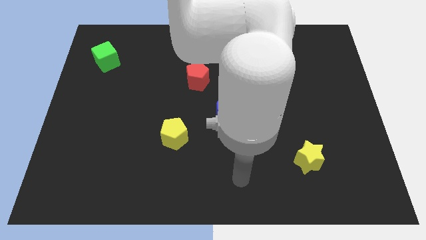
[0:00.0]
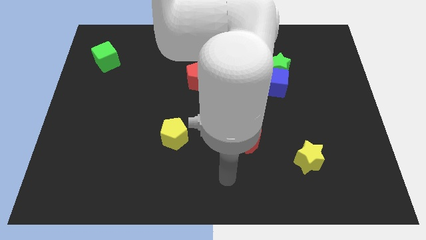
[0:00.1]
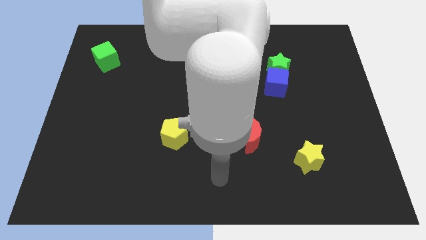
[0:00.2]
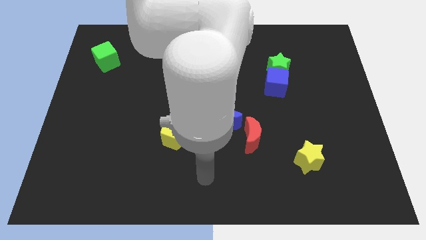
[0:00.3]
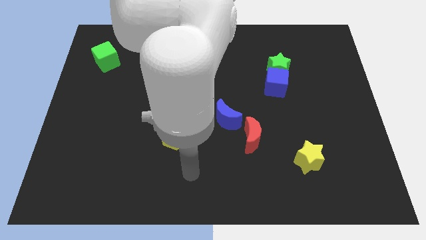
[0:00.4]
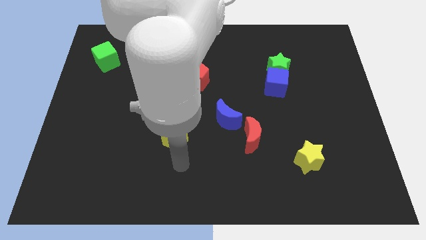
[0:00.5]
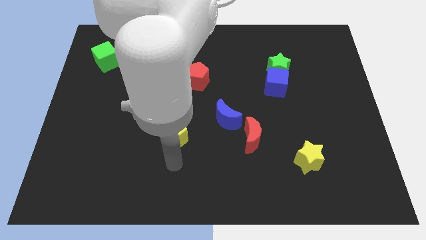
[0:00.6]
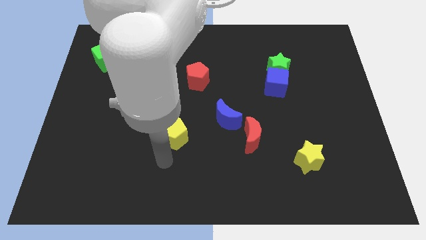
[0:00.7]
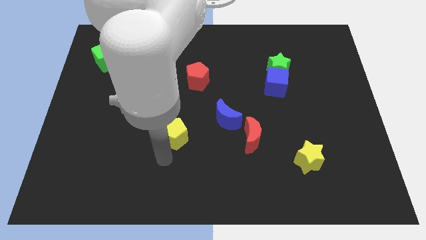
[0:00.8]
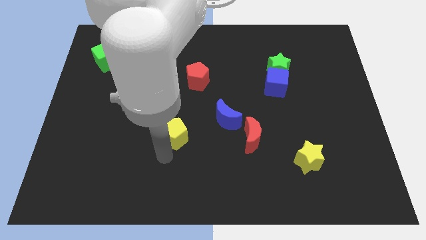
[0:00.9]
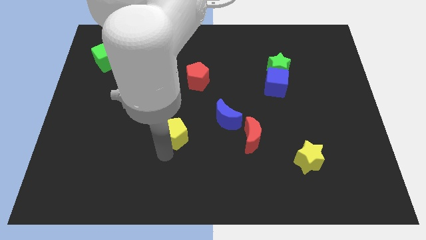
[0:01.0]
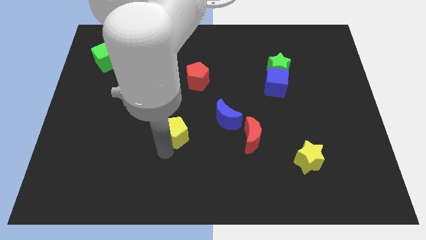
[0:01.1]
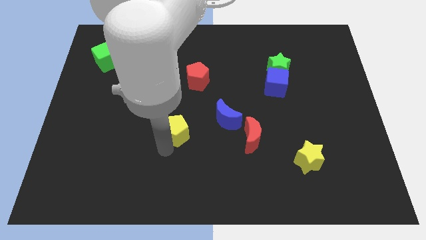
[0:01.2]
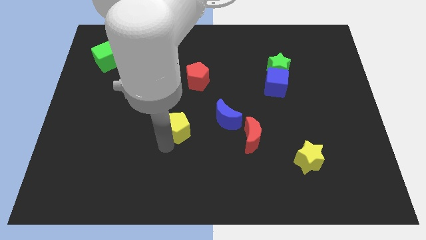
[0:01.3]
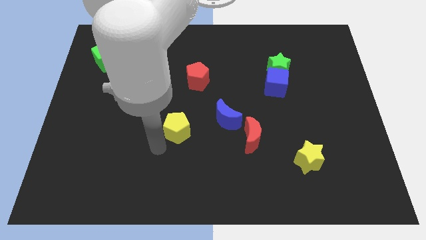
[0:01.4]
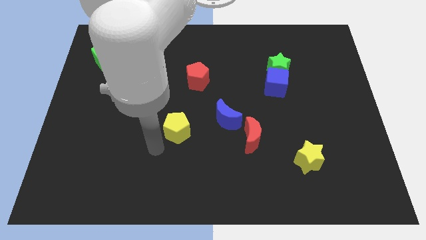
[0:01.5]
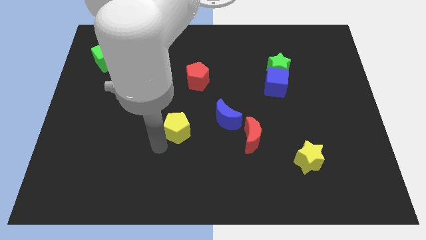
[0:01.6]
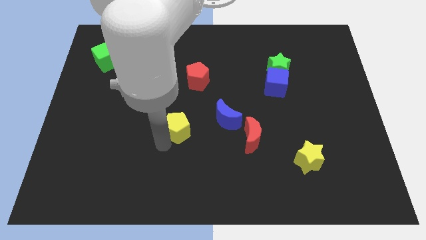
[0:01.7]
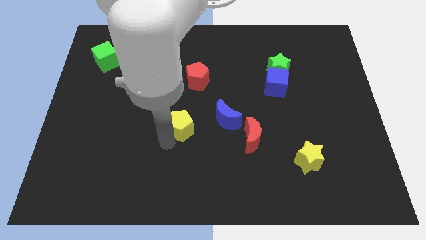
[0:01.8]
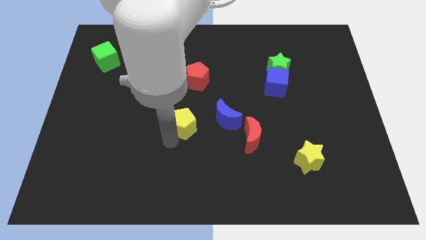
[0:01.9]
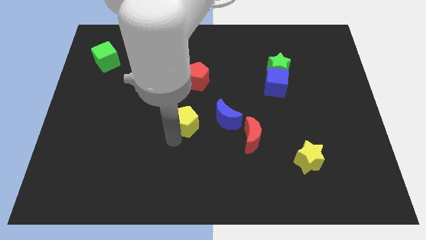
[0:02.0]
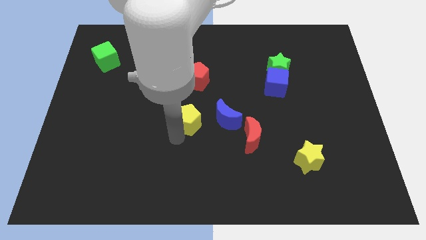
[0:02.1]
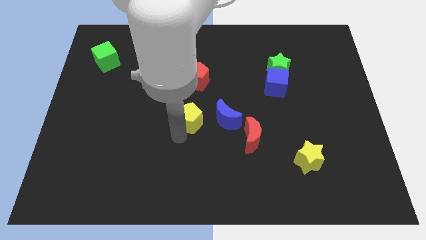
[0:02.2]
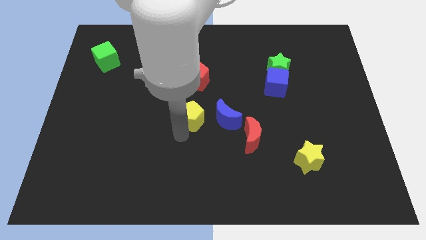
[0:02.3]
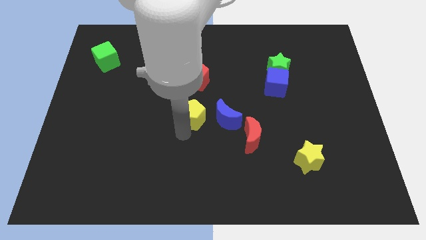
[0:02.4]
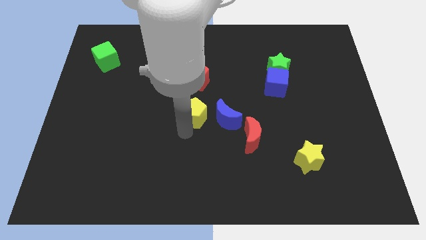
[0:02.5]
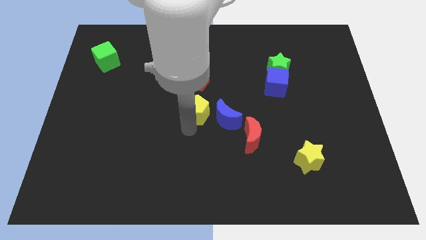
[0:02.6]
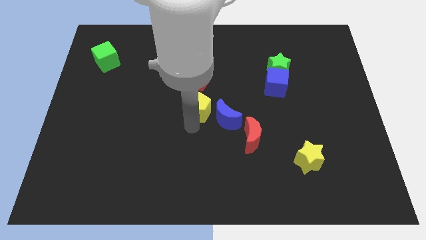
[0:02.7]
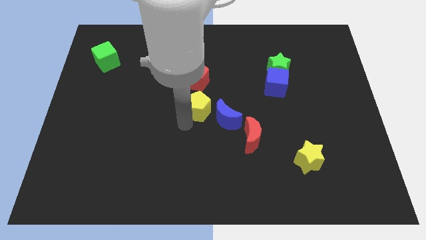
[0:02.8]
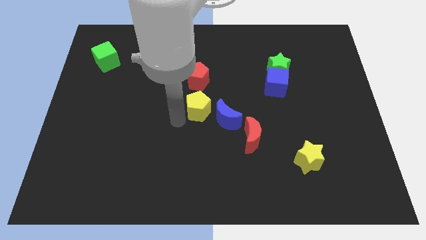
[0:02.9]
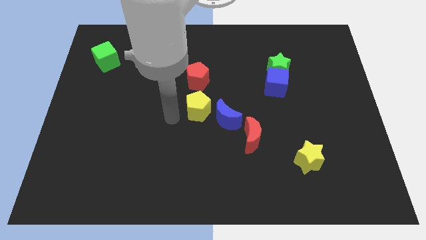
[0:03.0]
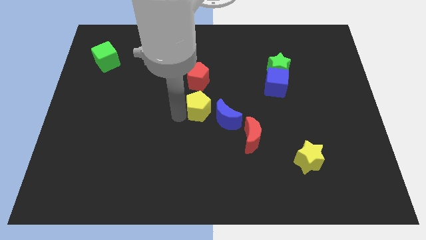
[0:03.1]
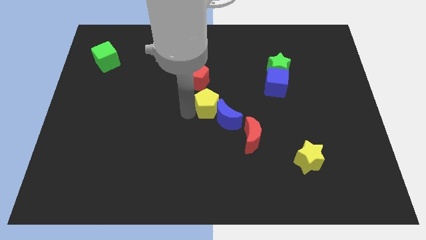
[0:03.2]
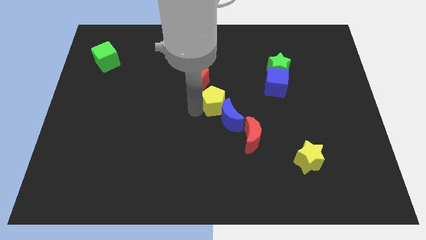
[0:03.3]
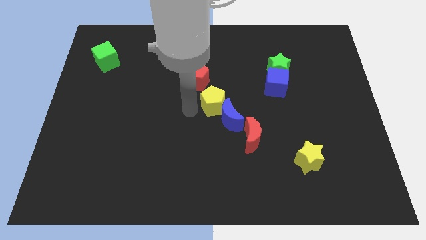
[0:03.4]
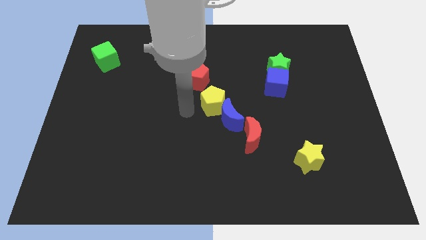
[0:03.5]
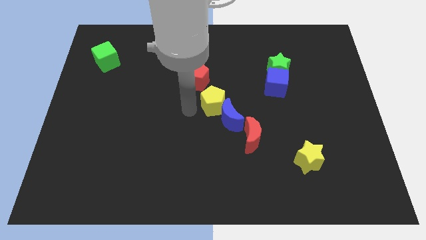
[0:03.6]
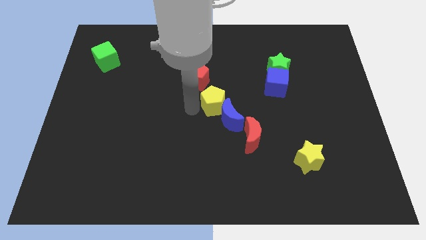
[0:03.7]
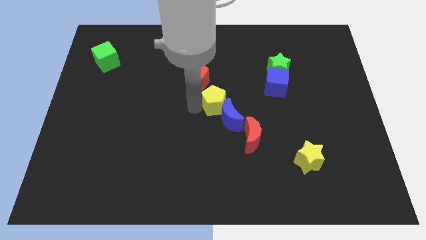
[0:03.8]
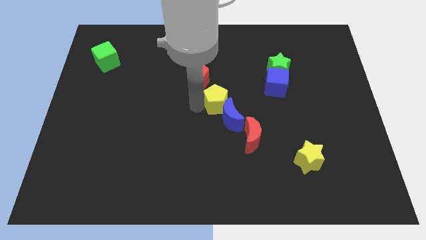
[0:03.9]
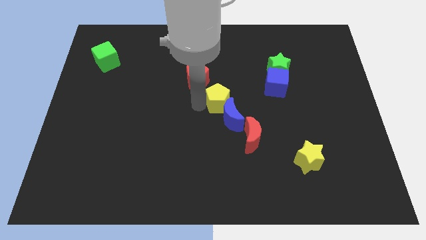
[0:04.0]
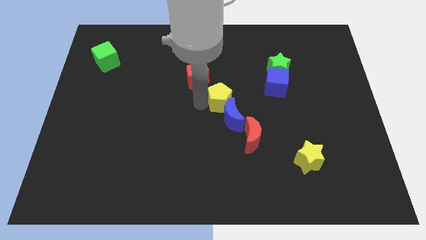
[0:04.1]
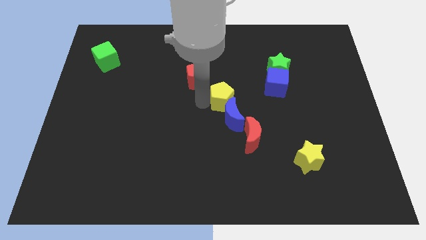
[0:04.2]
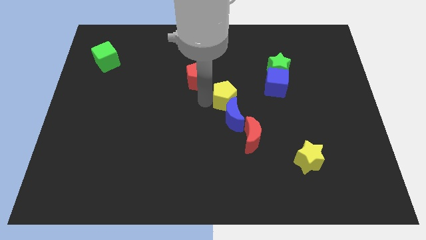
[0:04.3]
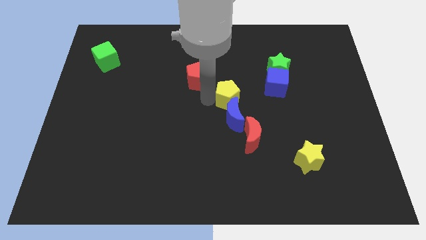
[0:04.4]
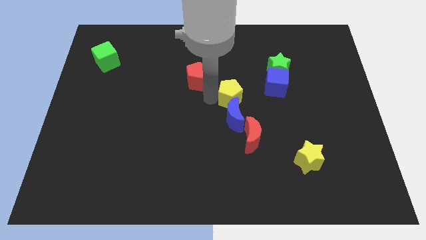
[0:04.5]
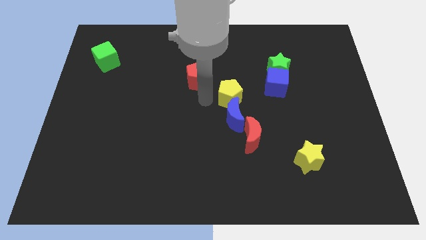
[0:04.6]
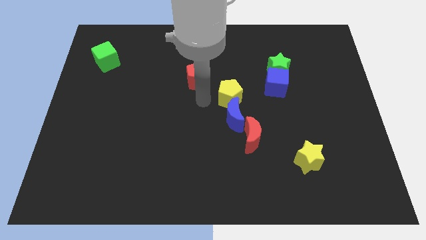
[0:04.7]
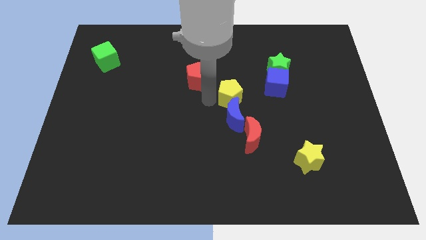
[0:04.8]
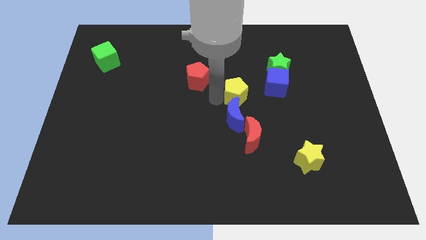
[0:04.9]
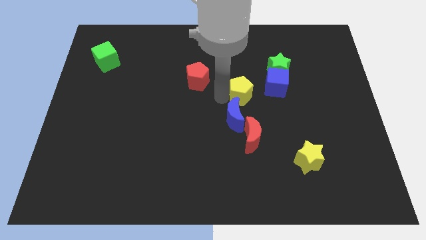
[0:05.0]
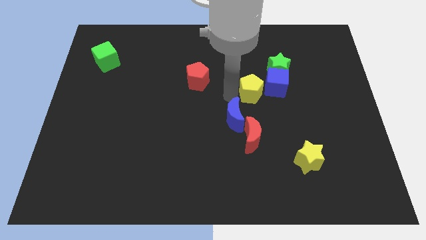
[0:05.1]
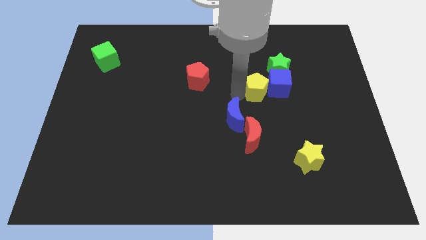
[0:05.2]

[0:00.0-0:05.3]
move the yellow pentagon to the blue cube

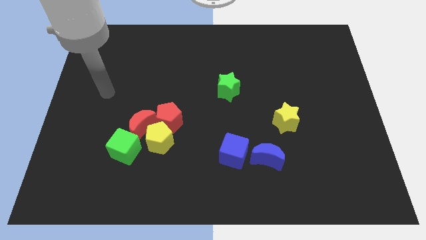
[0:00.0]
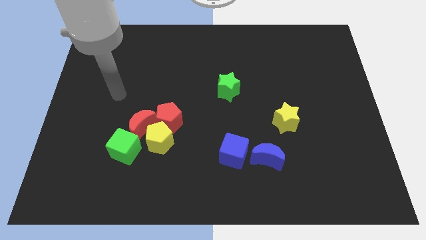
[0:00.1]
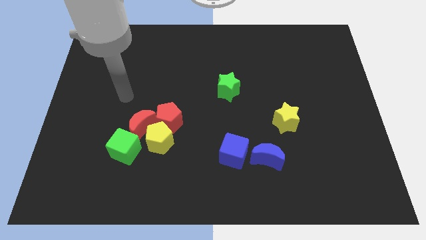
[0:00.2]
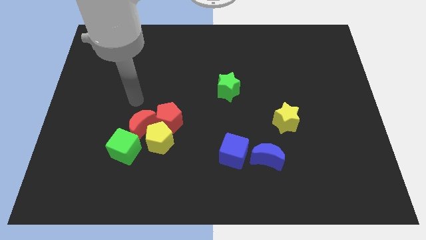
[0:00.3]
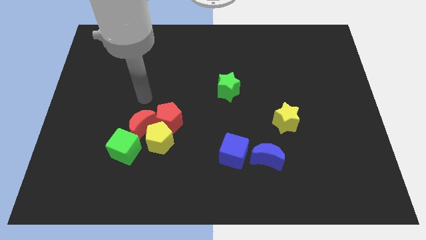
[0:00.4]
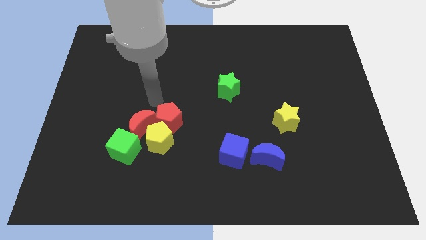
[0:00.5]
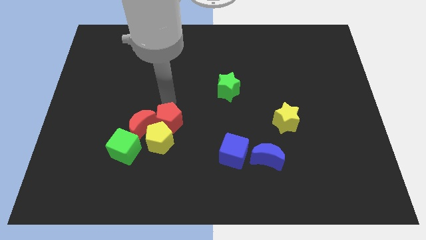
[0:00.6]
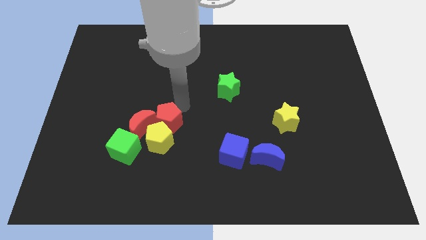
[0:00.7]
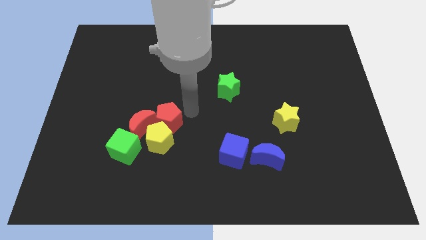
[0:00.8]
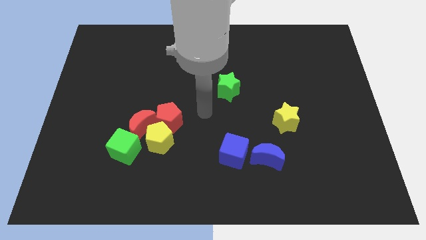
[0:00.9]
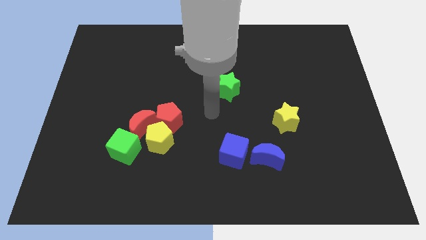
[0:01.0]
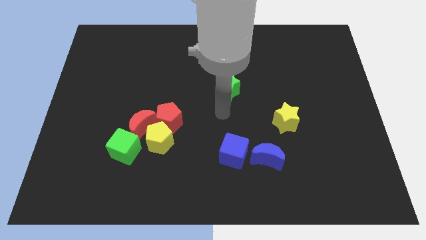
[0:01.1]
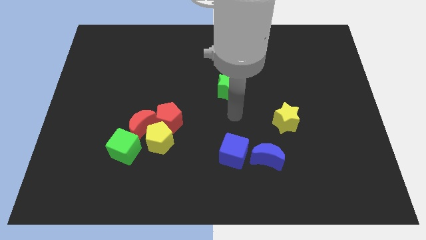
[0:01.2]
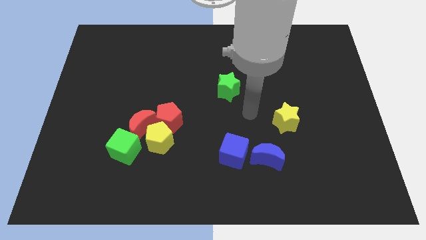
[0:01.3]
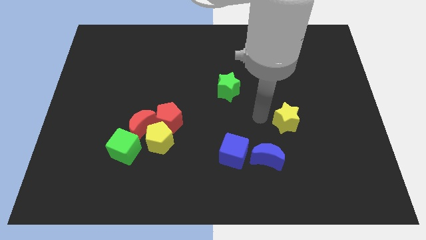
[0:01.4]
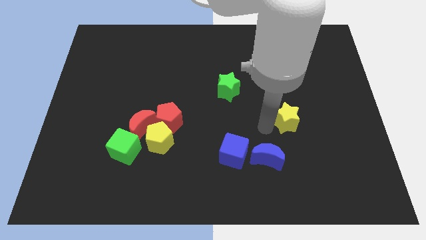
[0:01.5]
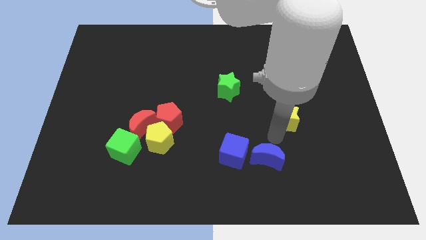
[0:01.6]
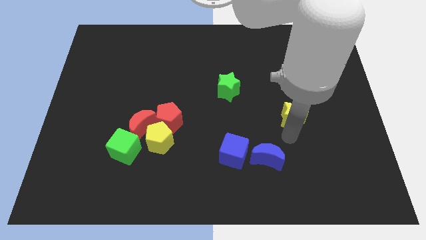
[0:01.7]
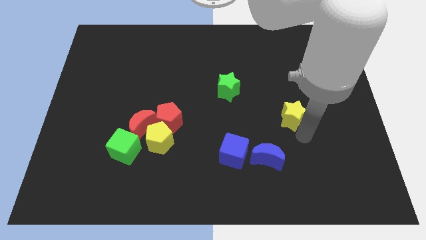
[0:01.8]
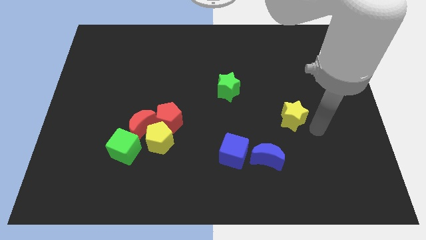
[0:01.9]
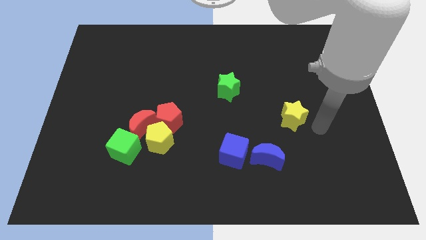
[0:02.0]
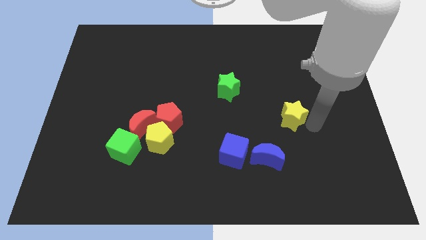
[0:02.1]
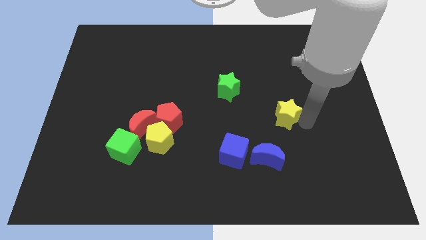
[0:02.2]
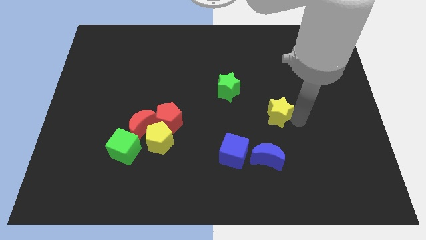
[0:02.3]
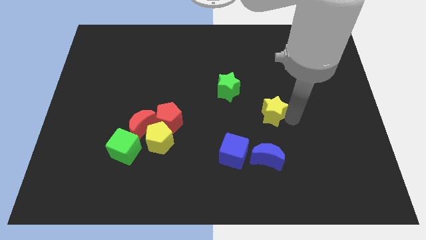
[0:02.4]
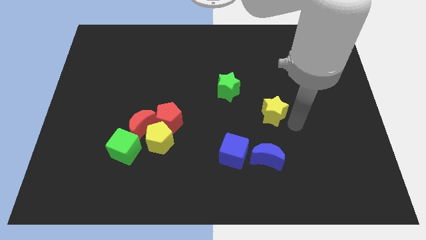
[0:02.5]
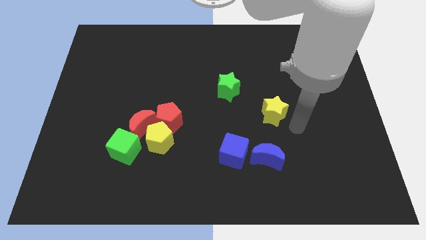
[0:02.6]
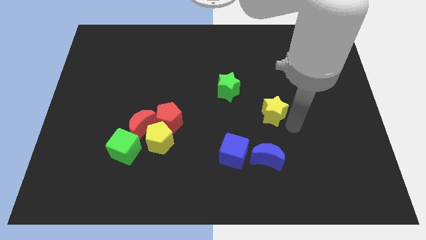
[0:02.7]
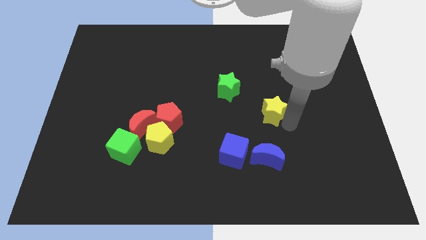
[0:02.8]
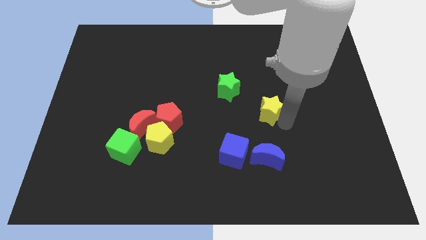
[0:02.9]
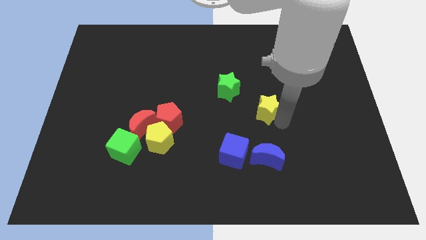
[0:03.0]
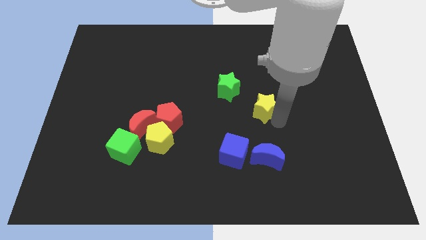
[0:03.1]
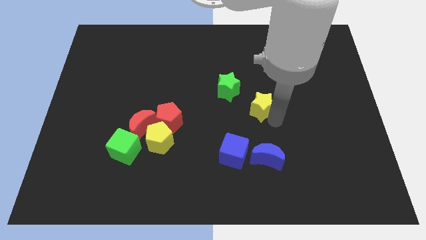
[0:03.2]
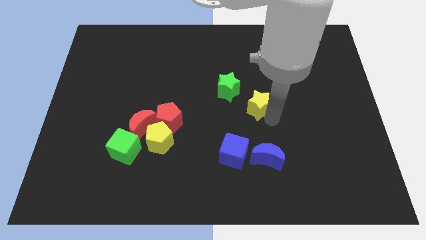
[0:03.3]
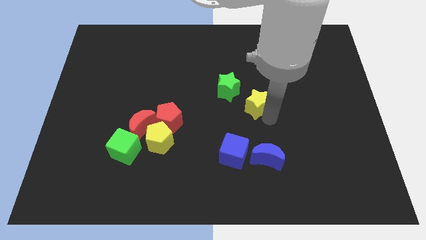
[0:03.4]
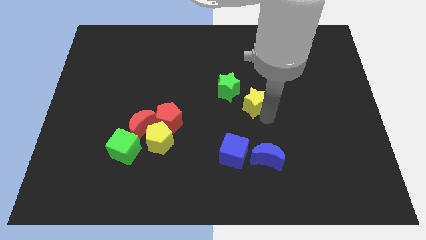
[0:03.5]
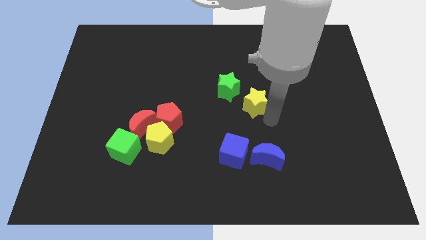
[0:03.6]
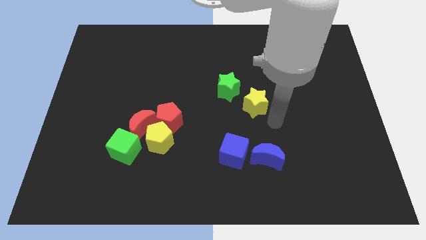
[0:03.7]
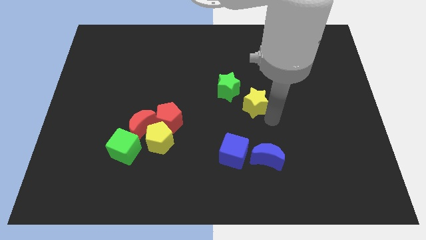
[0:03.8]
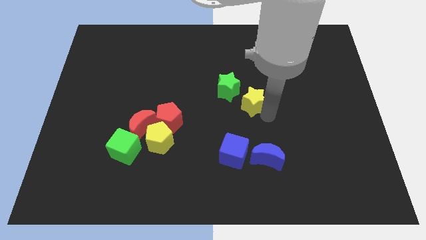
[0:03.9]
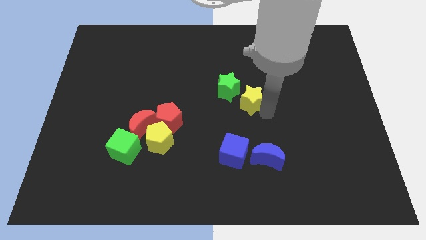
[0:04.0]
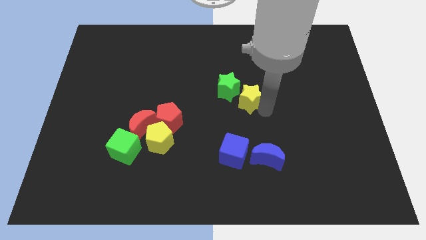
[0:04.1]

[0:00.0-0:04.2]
push the yellow star close to the green star
